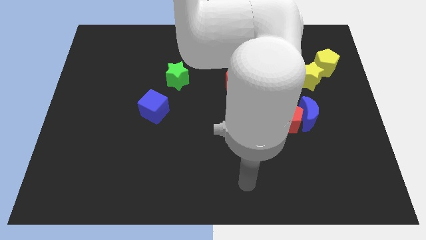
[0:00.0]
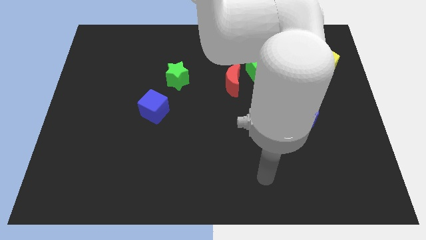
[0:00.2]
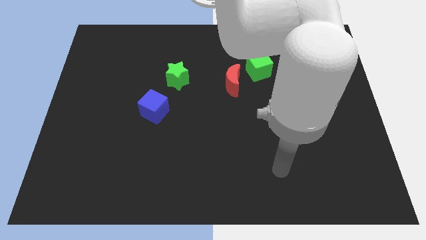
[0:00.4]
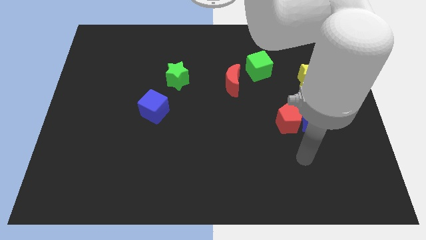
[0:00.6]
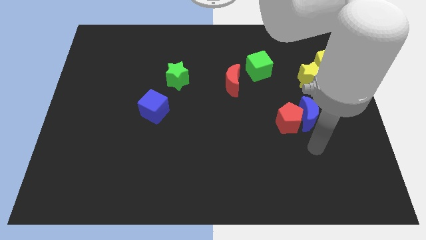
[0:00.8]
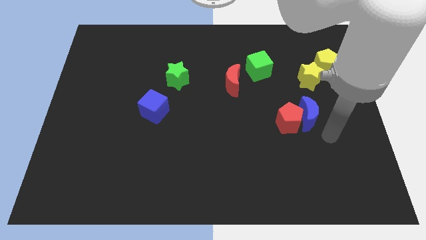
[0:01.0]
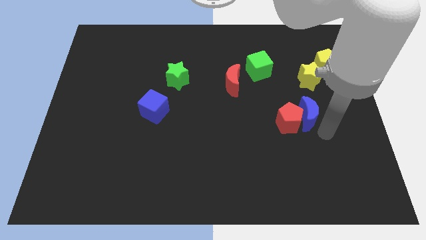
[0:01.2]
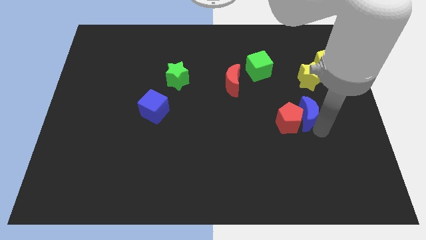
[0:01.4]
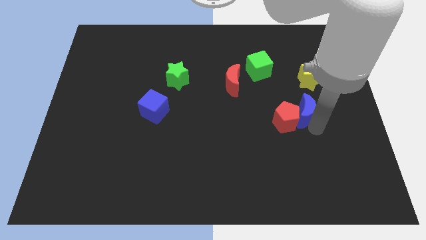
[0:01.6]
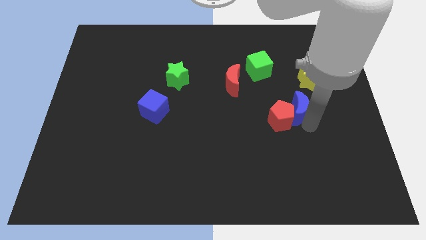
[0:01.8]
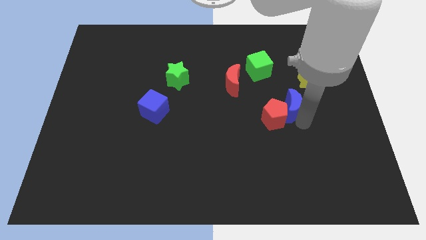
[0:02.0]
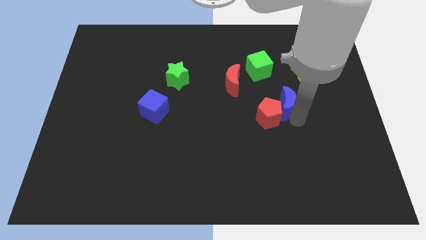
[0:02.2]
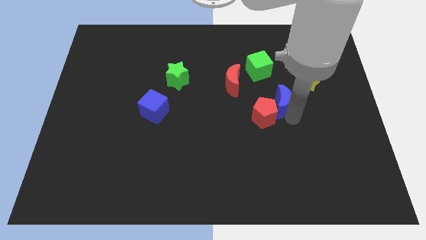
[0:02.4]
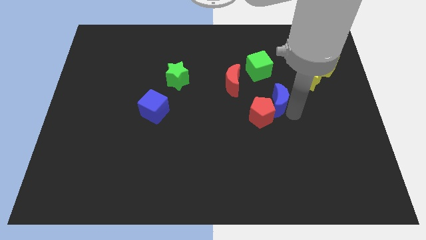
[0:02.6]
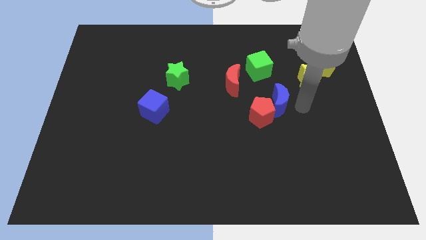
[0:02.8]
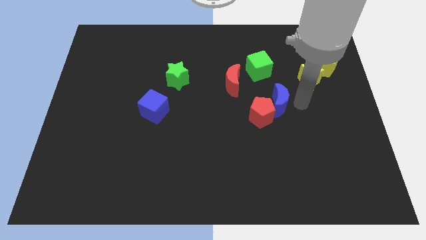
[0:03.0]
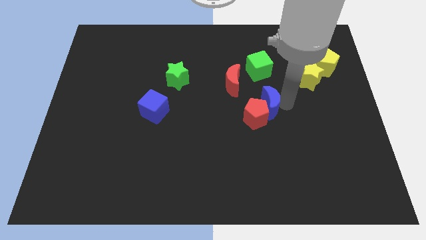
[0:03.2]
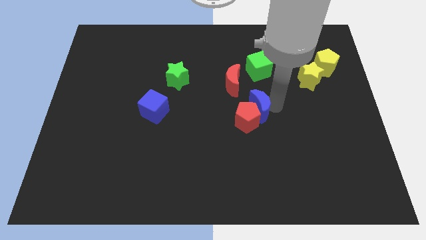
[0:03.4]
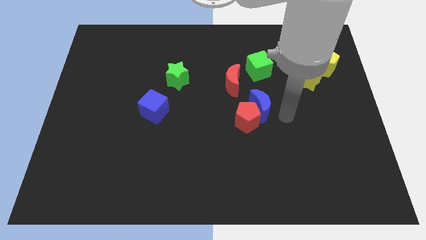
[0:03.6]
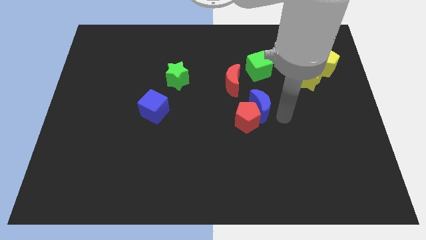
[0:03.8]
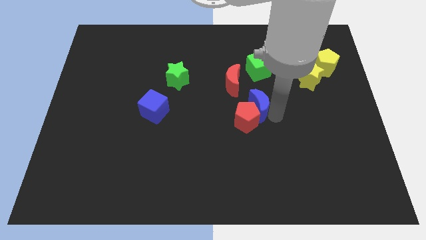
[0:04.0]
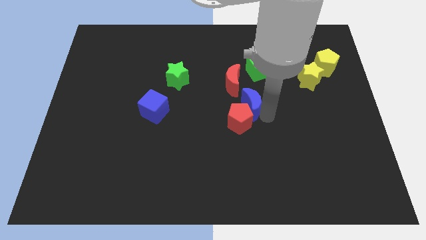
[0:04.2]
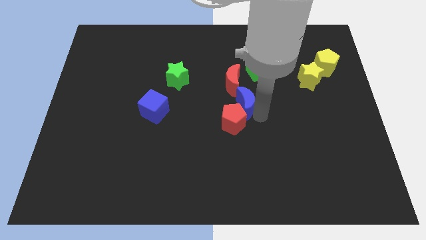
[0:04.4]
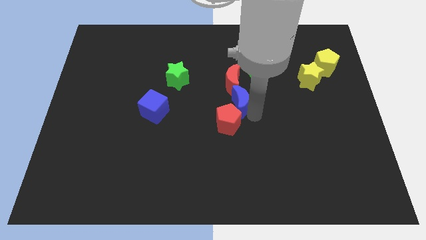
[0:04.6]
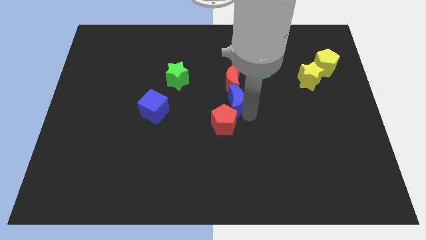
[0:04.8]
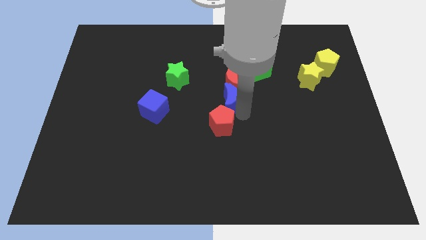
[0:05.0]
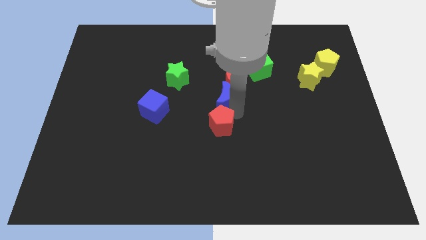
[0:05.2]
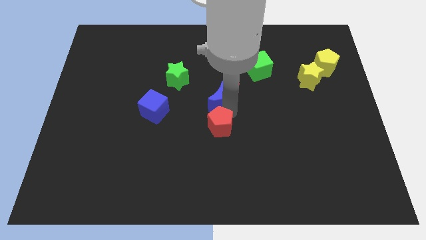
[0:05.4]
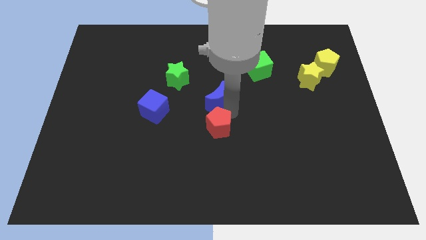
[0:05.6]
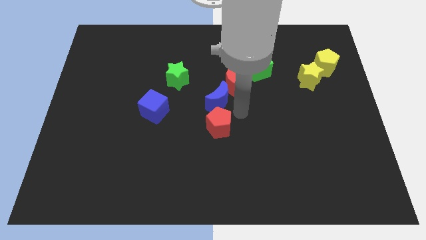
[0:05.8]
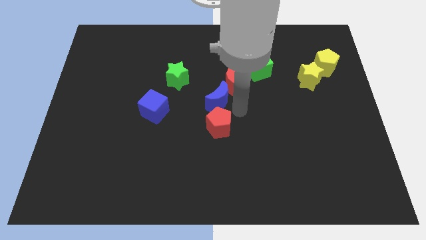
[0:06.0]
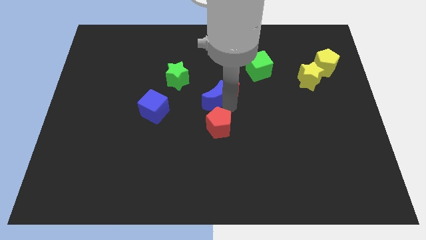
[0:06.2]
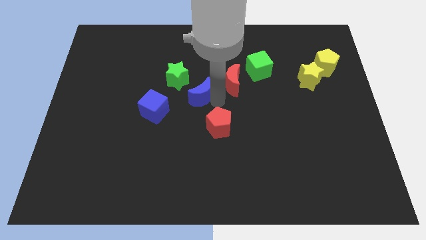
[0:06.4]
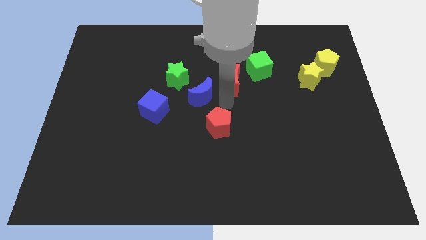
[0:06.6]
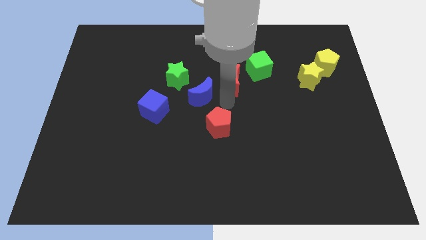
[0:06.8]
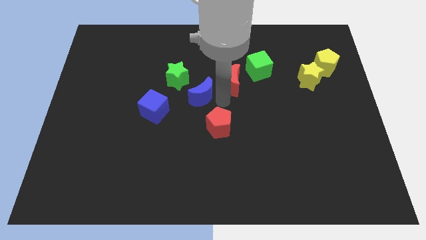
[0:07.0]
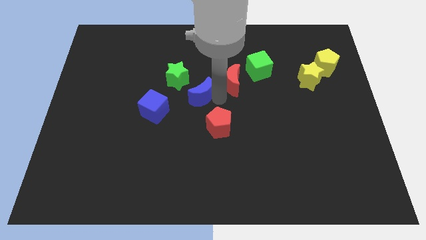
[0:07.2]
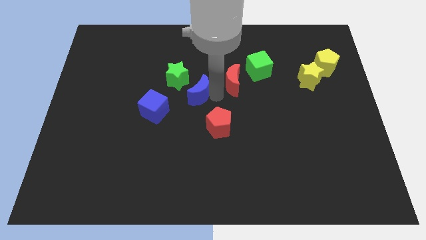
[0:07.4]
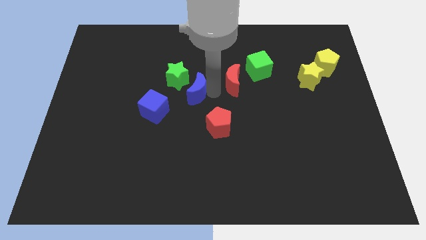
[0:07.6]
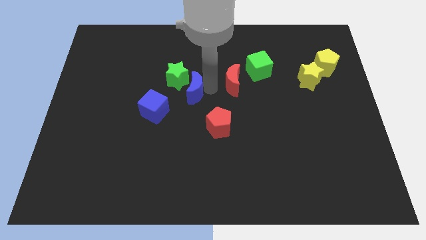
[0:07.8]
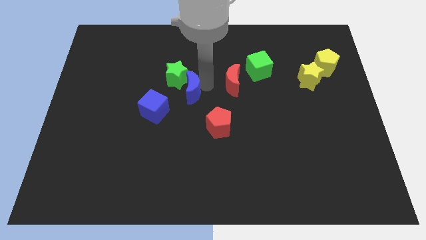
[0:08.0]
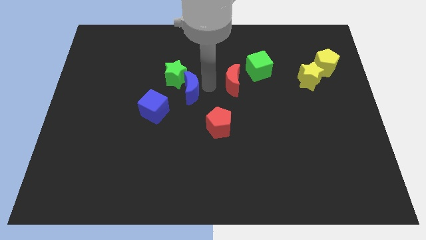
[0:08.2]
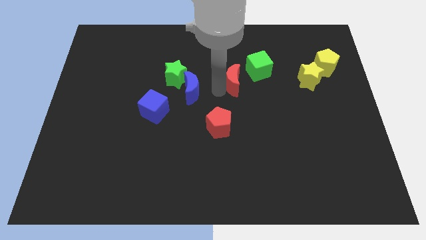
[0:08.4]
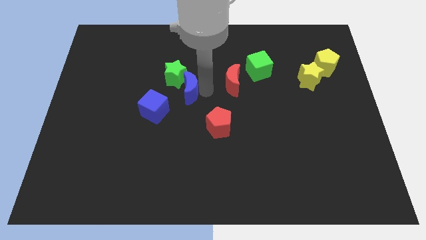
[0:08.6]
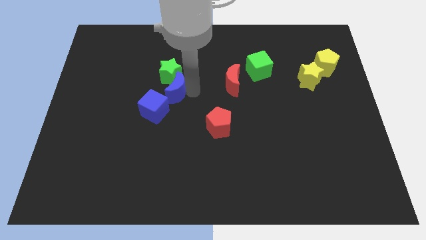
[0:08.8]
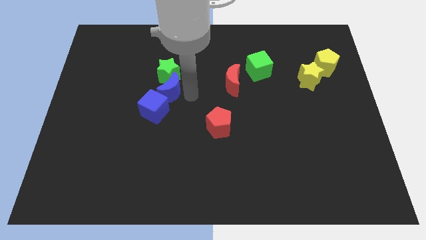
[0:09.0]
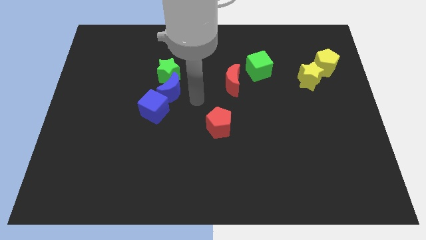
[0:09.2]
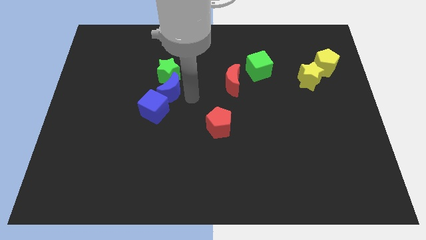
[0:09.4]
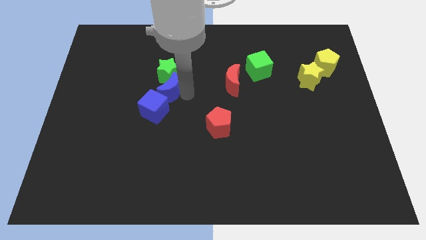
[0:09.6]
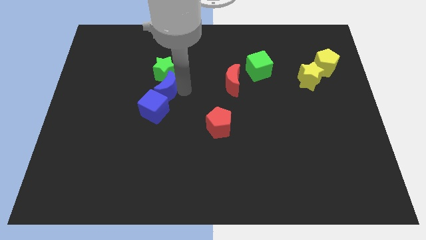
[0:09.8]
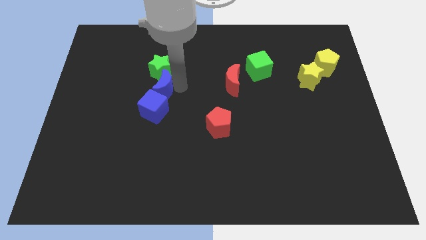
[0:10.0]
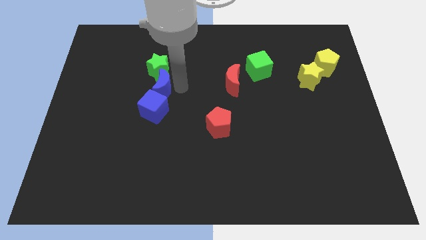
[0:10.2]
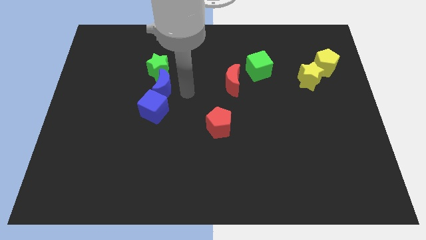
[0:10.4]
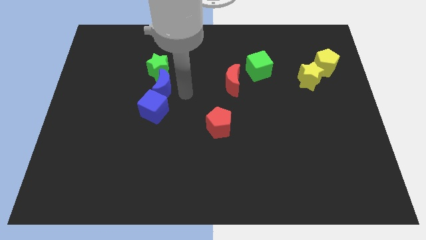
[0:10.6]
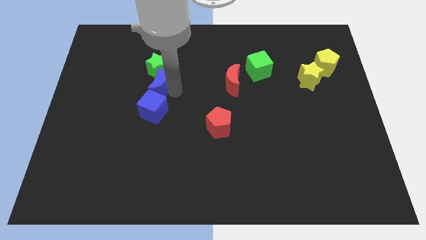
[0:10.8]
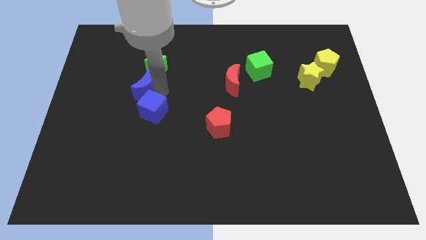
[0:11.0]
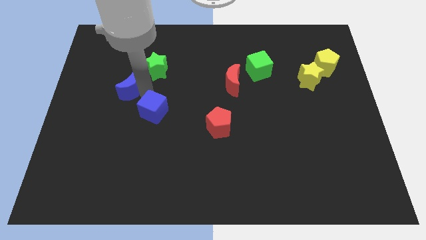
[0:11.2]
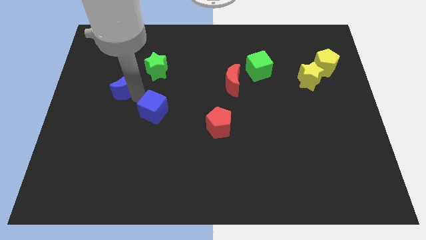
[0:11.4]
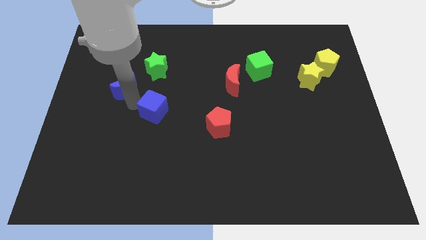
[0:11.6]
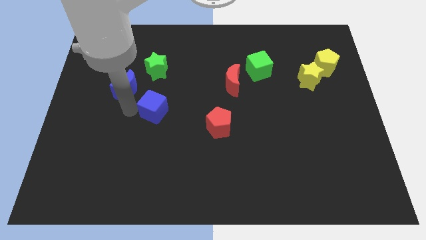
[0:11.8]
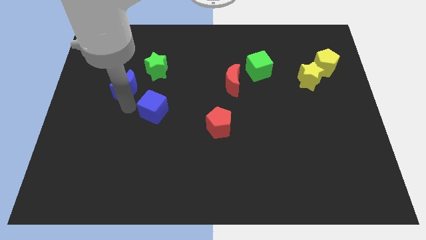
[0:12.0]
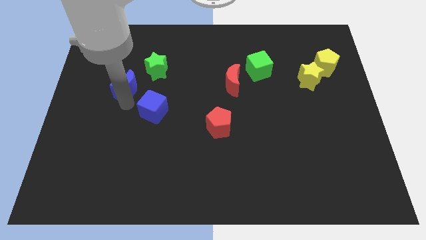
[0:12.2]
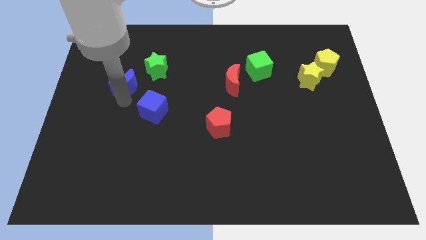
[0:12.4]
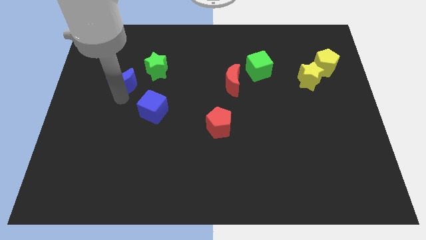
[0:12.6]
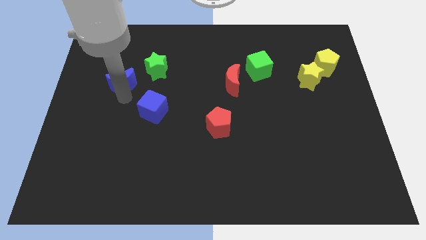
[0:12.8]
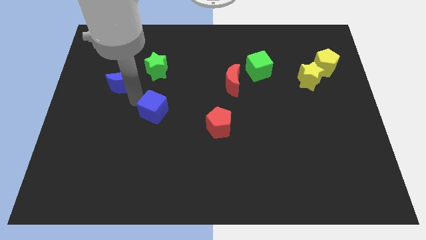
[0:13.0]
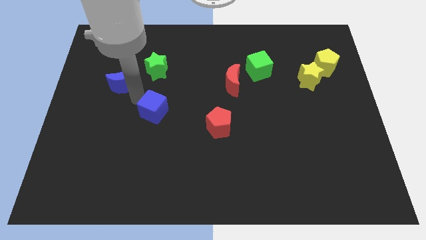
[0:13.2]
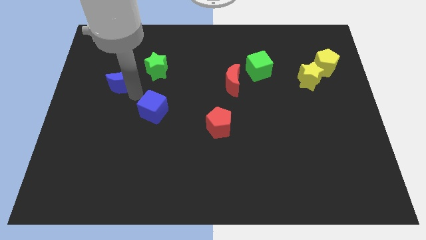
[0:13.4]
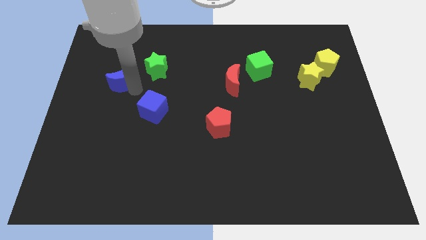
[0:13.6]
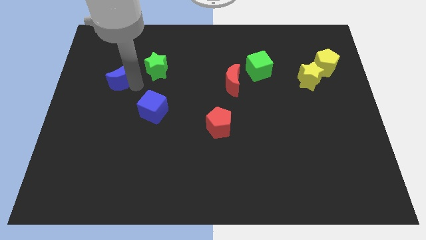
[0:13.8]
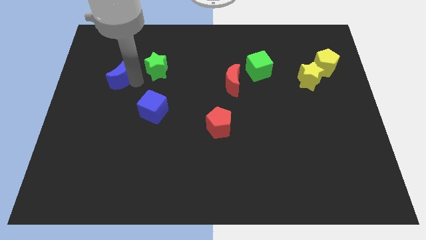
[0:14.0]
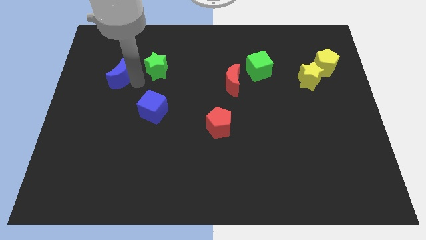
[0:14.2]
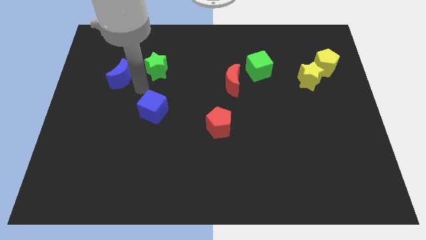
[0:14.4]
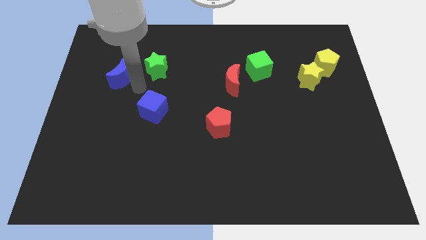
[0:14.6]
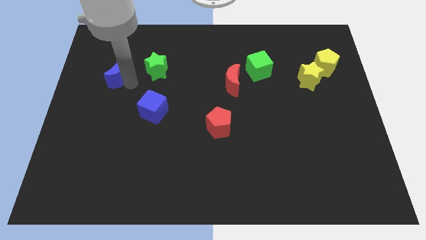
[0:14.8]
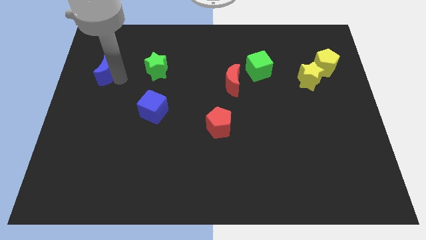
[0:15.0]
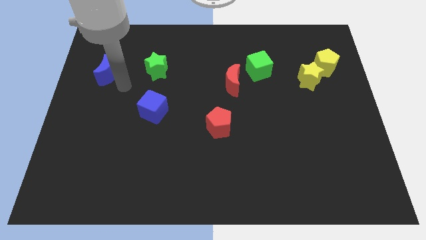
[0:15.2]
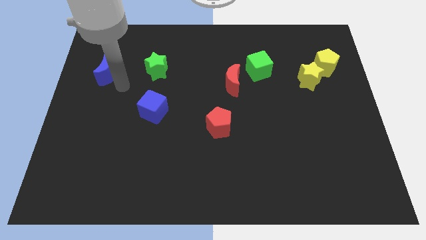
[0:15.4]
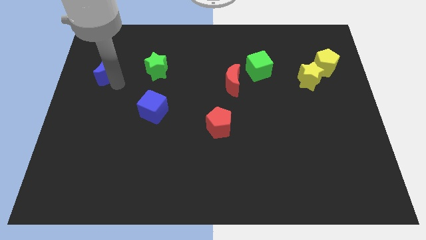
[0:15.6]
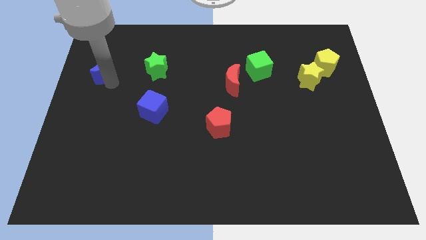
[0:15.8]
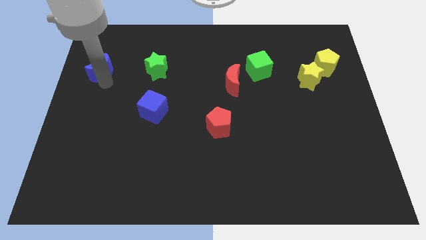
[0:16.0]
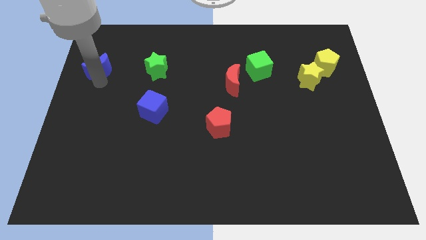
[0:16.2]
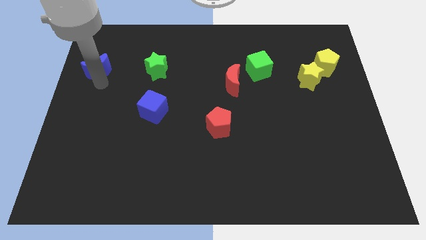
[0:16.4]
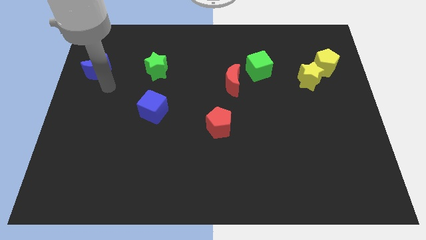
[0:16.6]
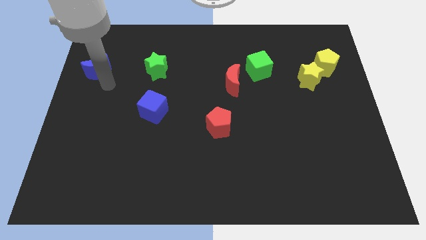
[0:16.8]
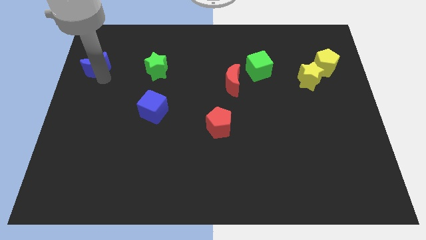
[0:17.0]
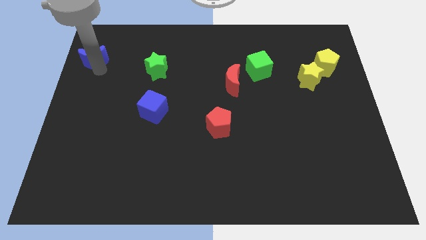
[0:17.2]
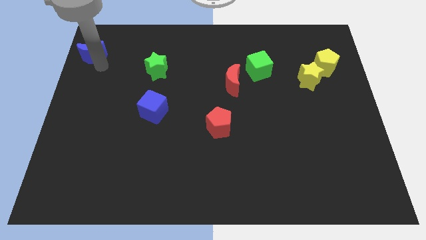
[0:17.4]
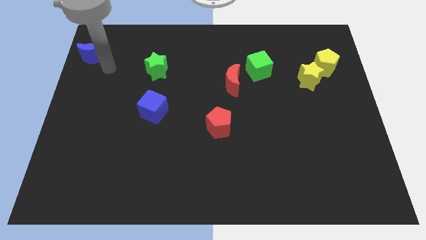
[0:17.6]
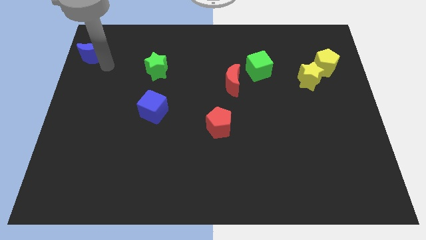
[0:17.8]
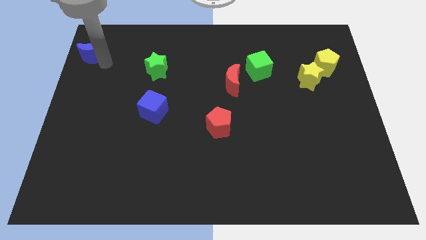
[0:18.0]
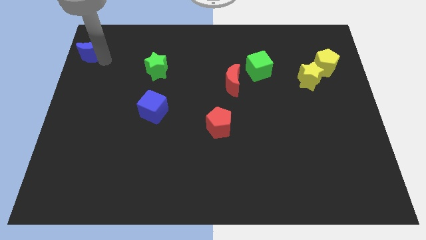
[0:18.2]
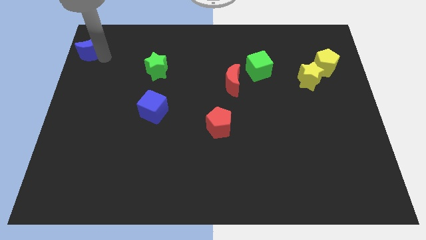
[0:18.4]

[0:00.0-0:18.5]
move the blue moon to the upper left corner
